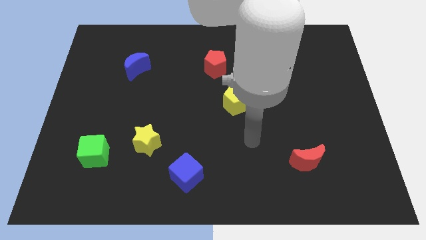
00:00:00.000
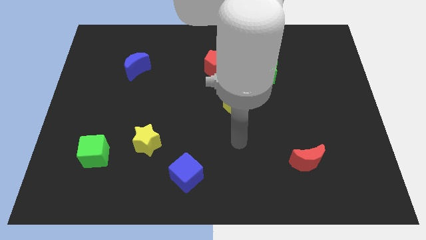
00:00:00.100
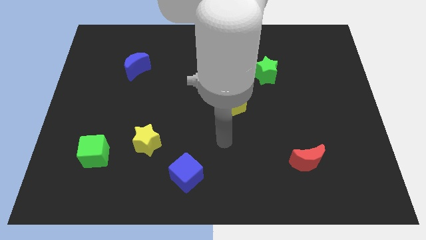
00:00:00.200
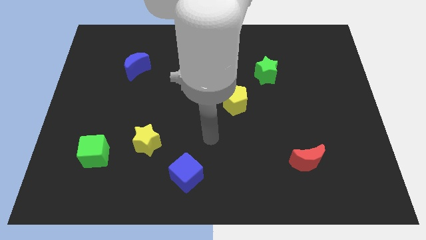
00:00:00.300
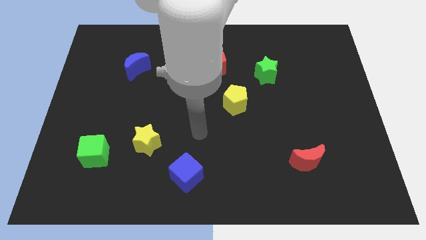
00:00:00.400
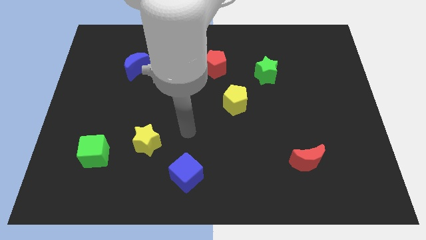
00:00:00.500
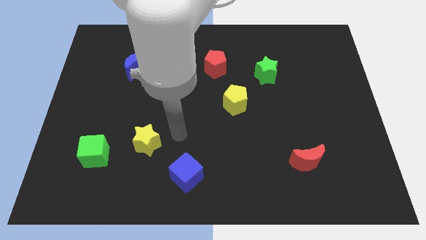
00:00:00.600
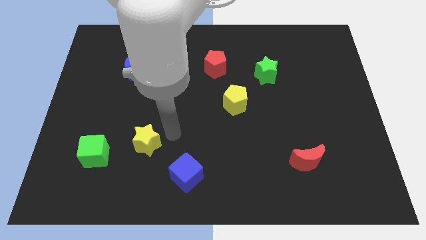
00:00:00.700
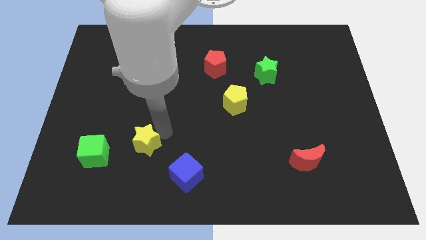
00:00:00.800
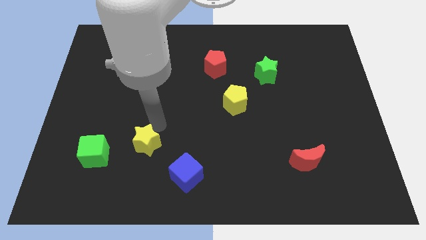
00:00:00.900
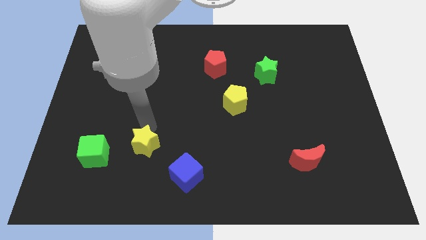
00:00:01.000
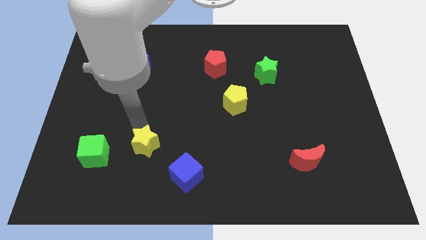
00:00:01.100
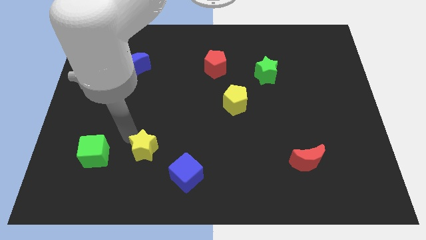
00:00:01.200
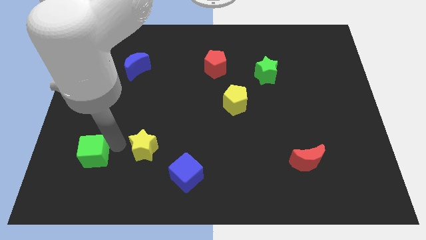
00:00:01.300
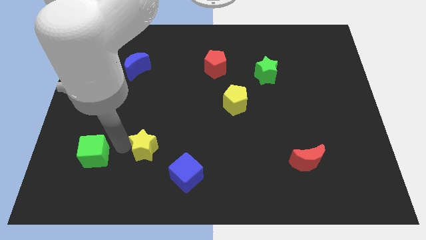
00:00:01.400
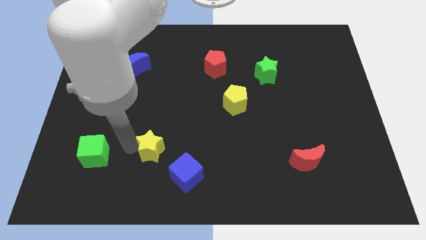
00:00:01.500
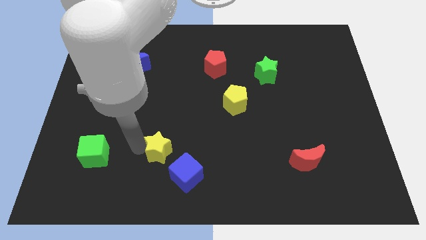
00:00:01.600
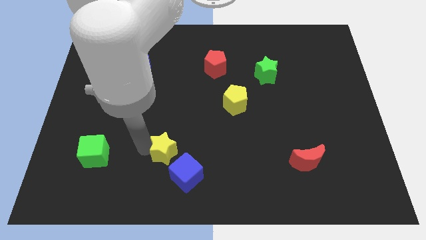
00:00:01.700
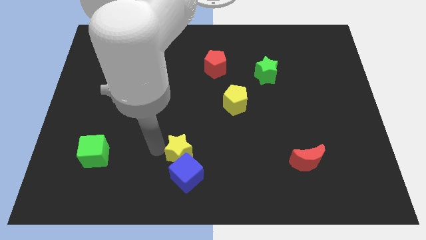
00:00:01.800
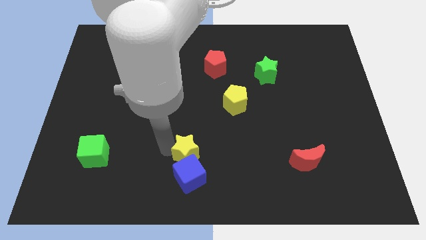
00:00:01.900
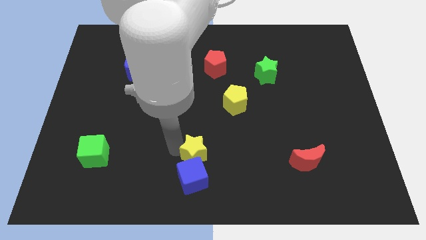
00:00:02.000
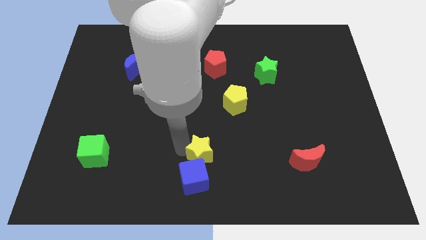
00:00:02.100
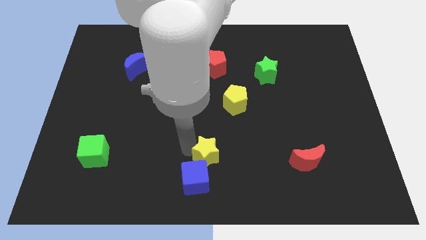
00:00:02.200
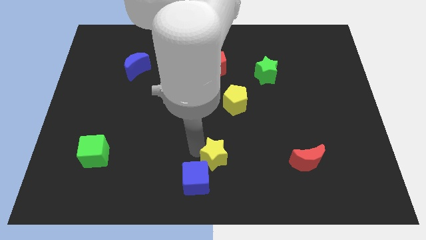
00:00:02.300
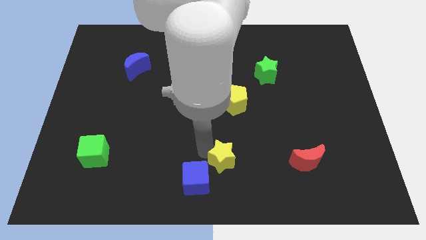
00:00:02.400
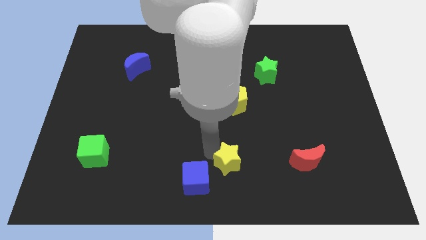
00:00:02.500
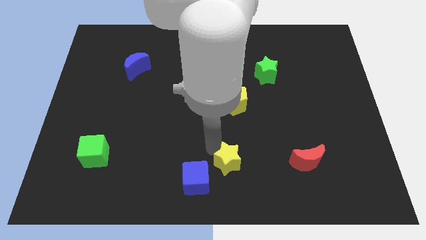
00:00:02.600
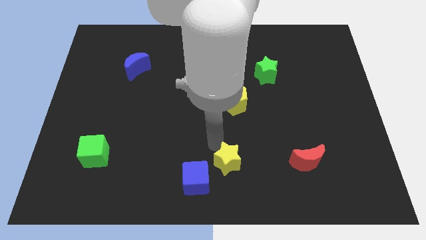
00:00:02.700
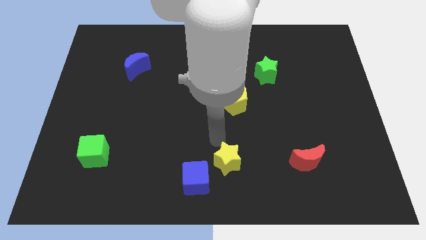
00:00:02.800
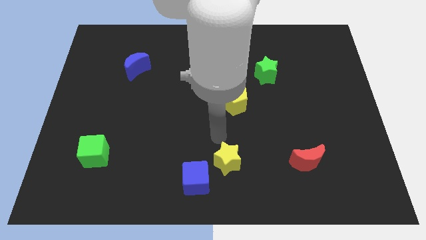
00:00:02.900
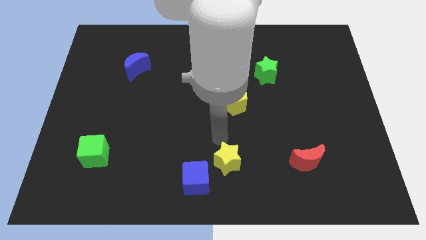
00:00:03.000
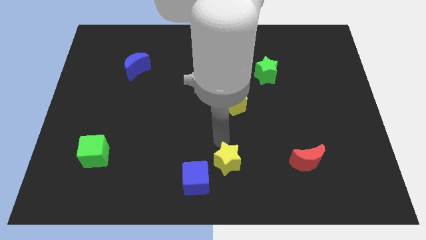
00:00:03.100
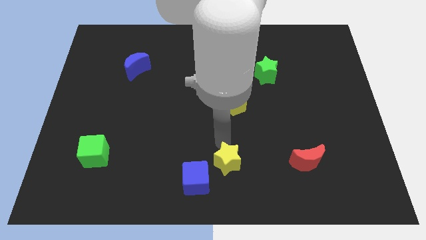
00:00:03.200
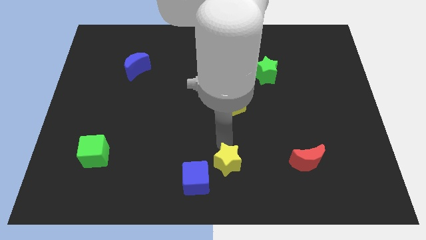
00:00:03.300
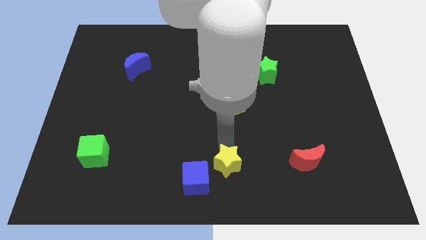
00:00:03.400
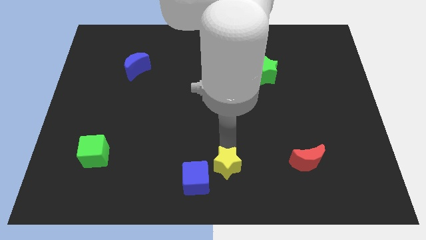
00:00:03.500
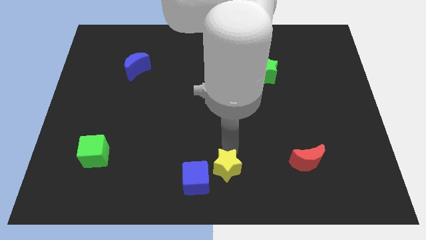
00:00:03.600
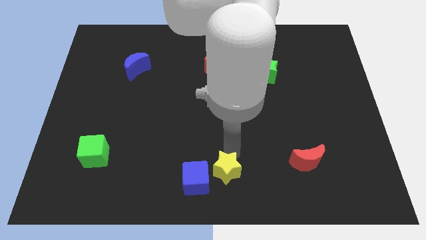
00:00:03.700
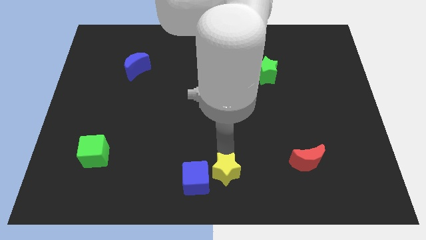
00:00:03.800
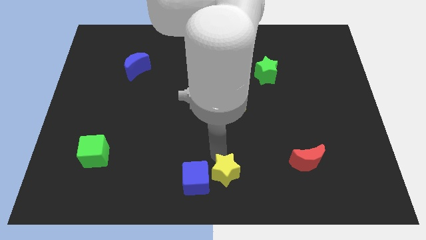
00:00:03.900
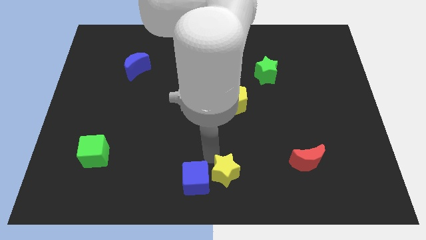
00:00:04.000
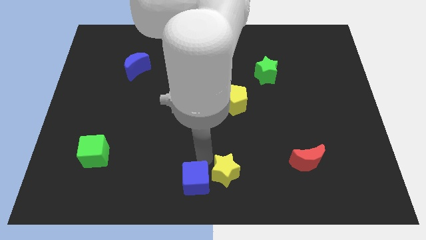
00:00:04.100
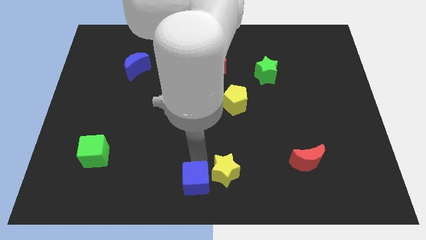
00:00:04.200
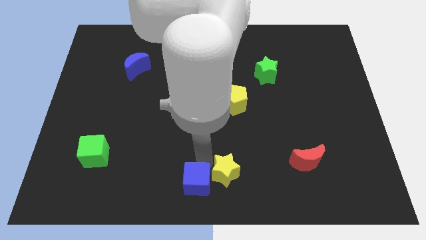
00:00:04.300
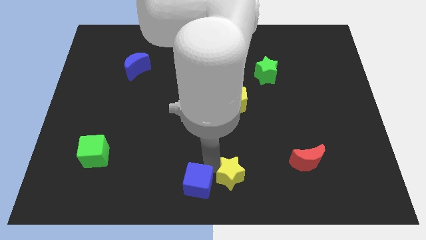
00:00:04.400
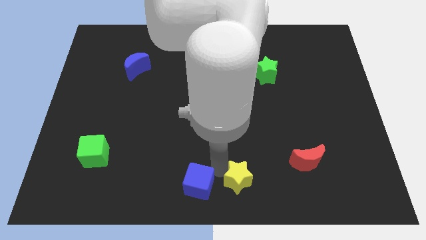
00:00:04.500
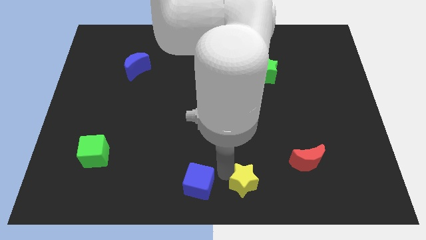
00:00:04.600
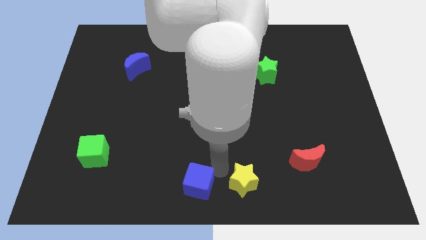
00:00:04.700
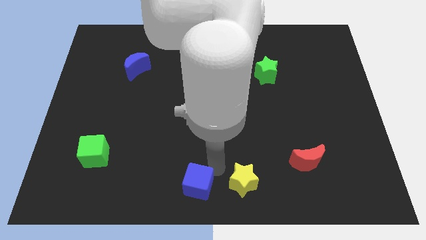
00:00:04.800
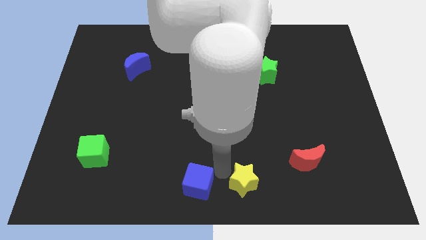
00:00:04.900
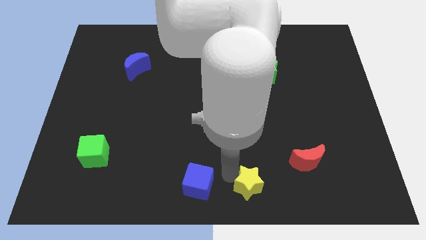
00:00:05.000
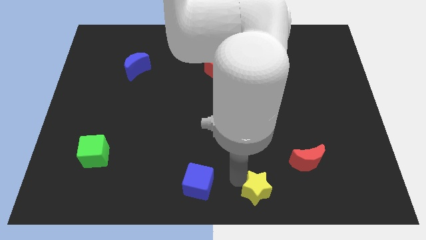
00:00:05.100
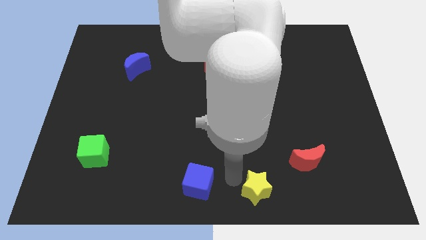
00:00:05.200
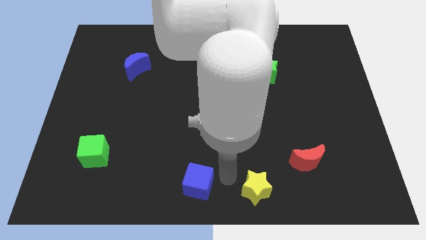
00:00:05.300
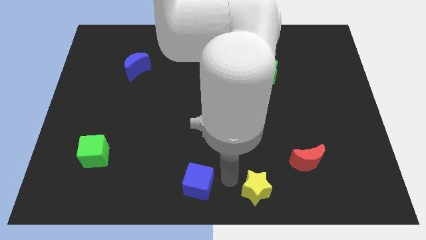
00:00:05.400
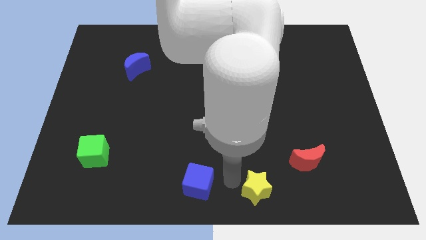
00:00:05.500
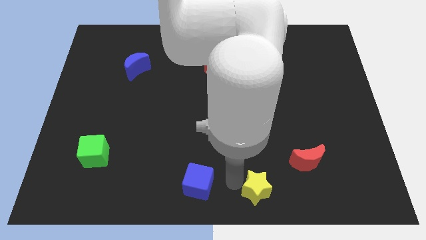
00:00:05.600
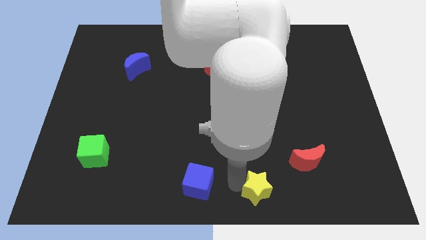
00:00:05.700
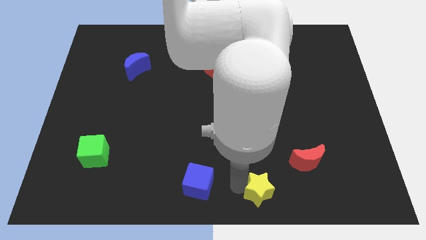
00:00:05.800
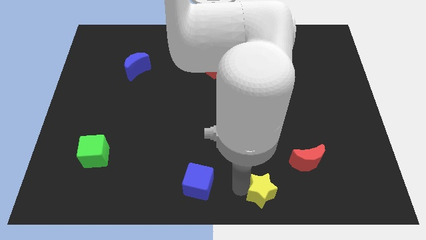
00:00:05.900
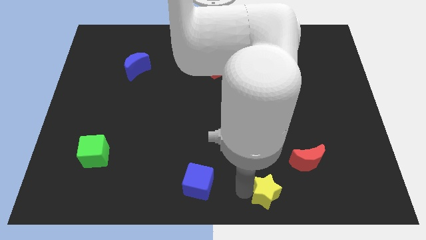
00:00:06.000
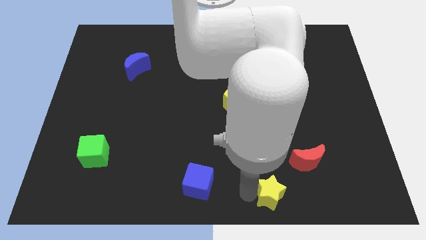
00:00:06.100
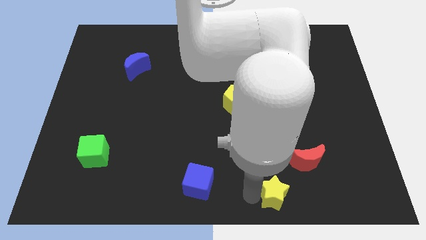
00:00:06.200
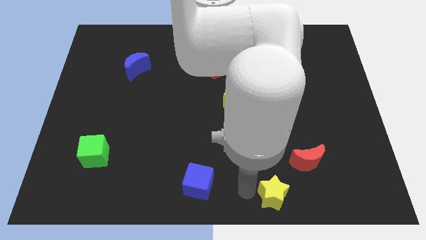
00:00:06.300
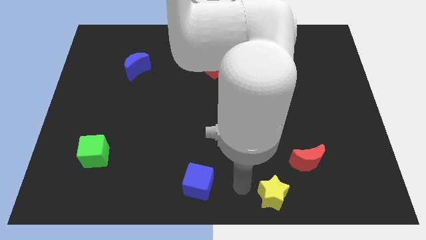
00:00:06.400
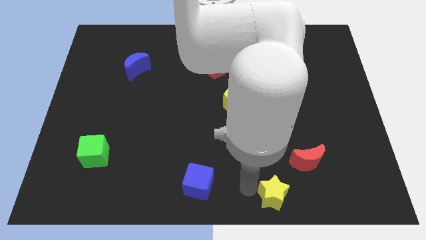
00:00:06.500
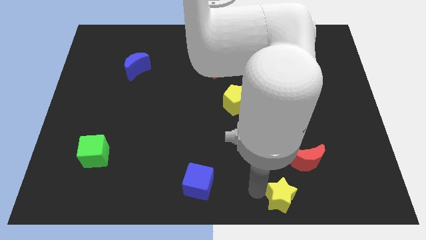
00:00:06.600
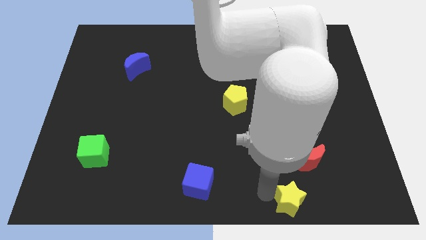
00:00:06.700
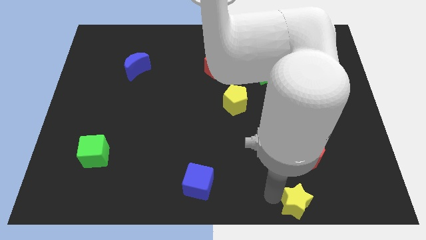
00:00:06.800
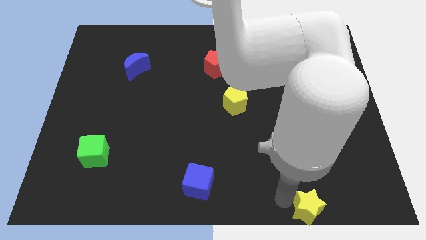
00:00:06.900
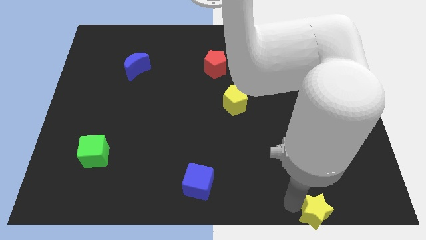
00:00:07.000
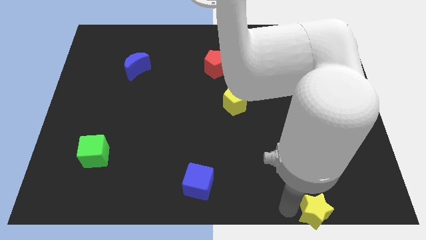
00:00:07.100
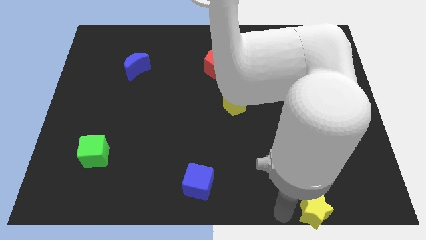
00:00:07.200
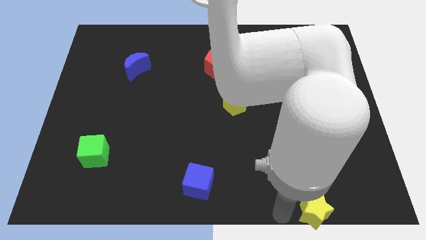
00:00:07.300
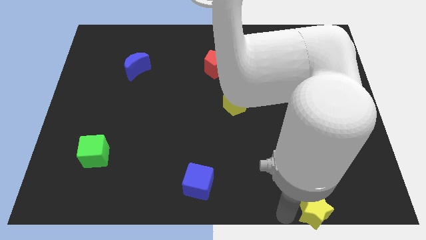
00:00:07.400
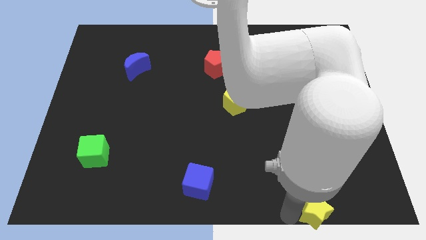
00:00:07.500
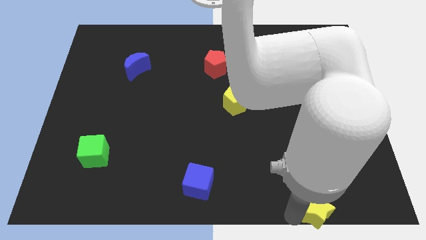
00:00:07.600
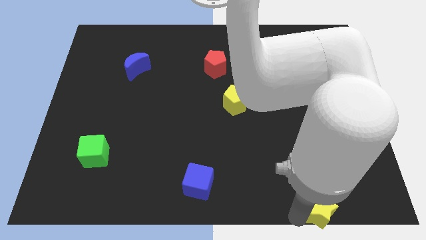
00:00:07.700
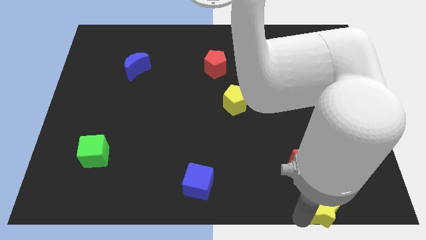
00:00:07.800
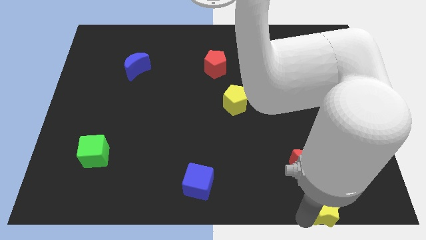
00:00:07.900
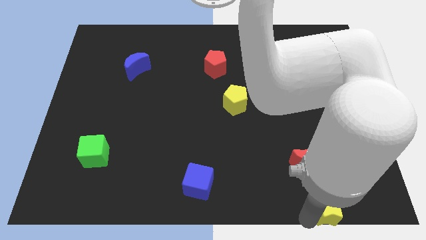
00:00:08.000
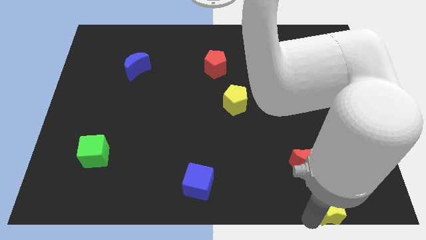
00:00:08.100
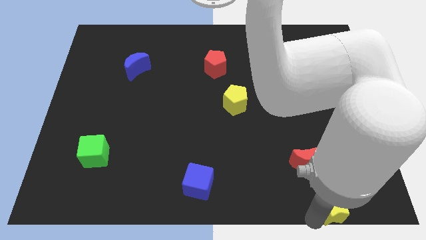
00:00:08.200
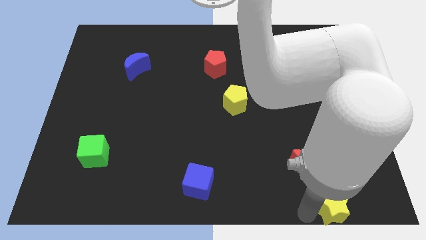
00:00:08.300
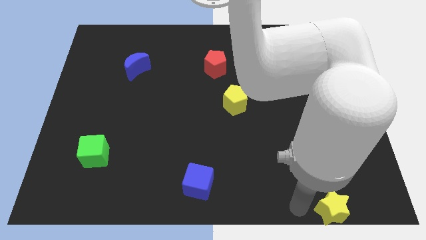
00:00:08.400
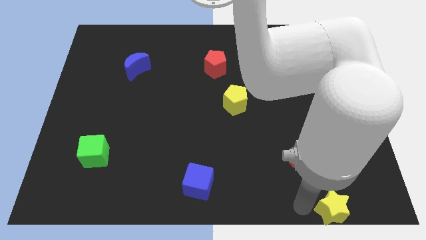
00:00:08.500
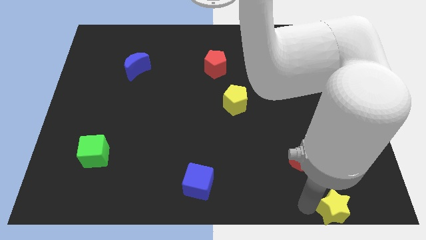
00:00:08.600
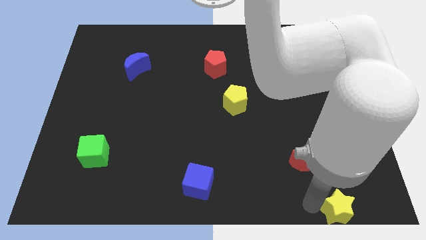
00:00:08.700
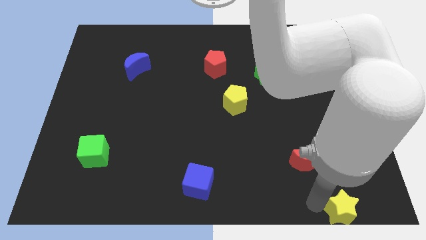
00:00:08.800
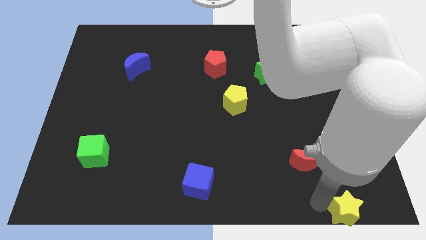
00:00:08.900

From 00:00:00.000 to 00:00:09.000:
slide the yellow star to the bottom right of the board
